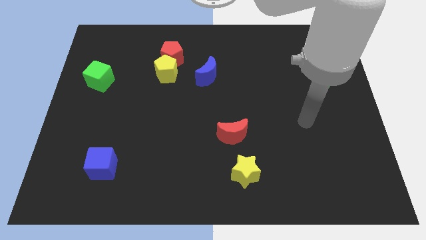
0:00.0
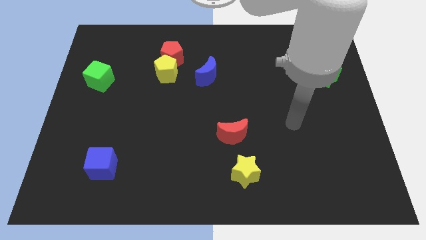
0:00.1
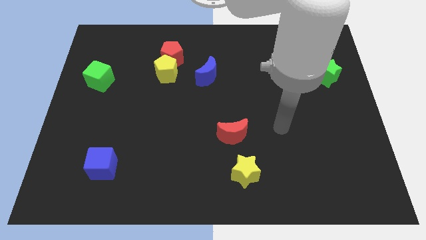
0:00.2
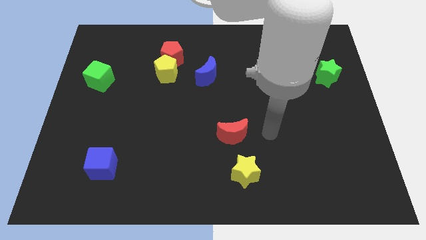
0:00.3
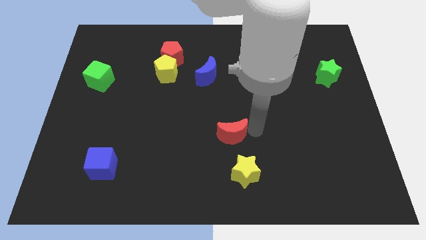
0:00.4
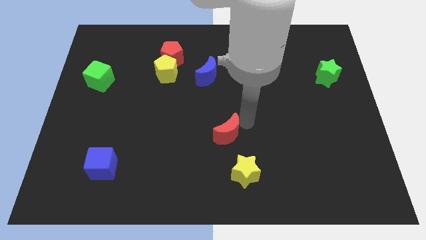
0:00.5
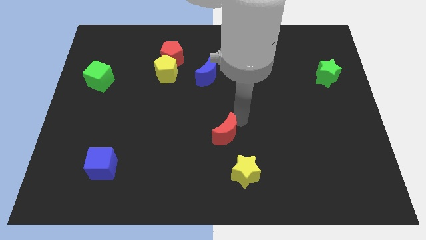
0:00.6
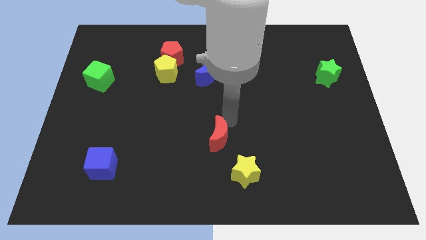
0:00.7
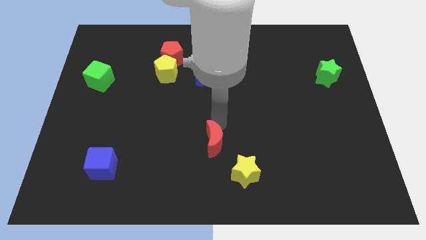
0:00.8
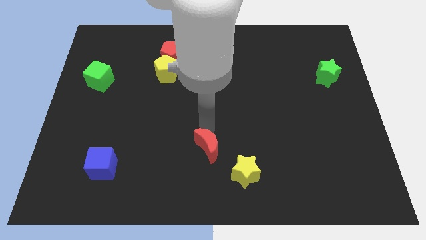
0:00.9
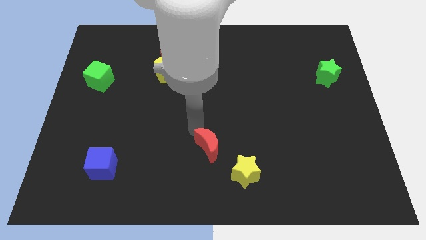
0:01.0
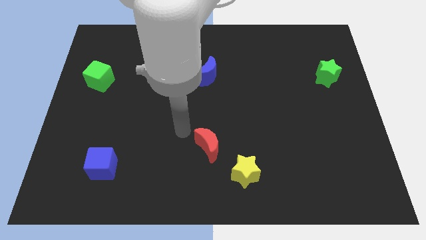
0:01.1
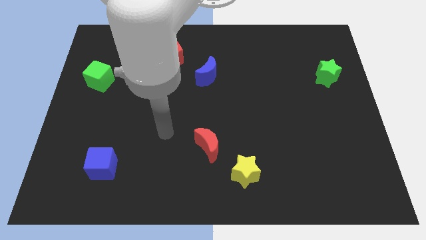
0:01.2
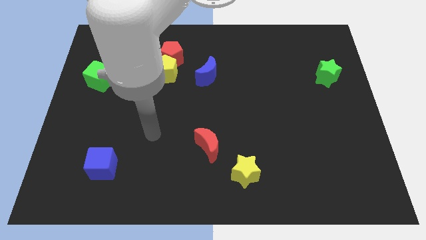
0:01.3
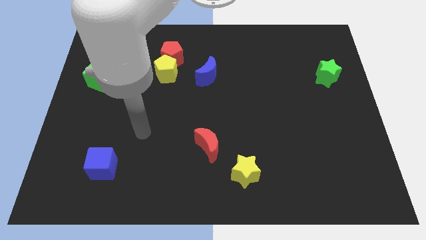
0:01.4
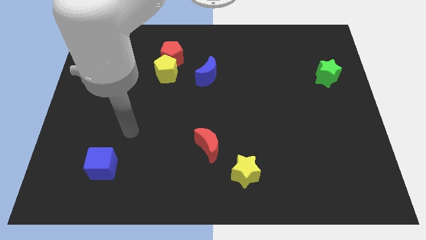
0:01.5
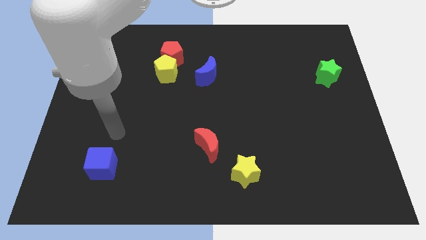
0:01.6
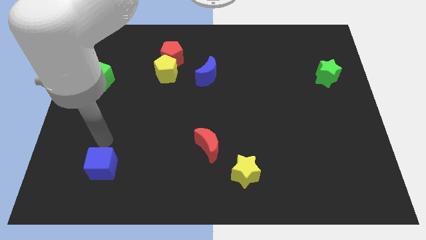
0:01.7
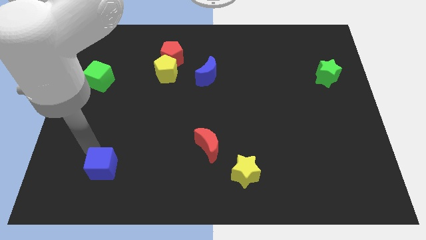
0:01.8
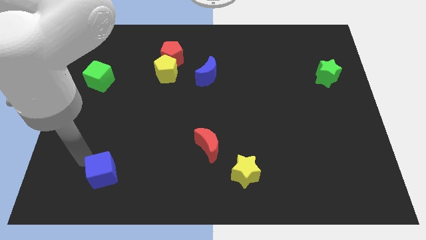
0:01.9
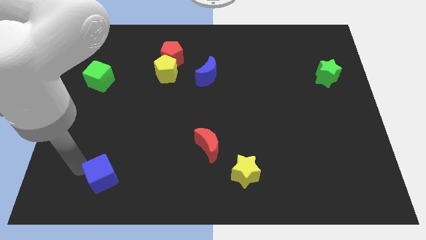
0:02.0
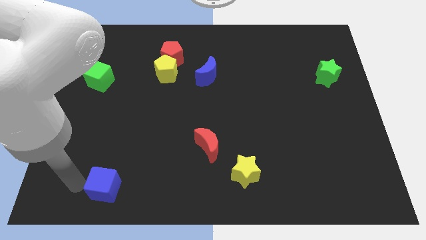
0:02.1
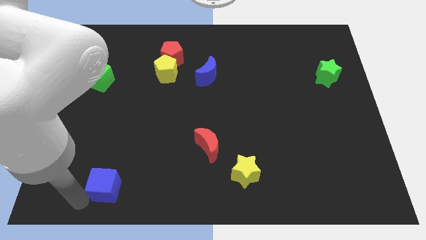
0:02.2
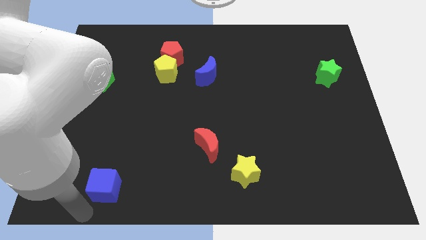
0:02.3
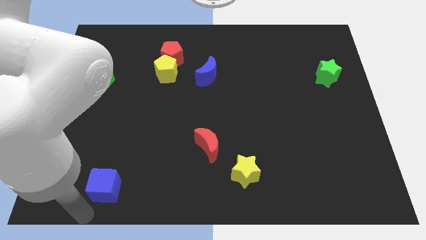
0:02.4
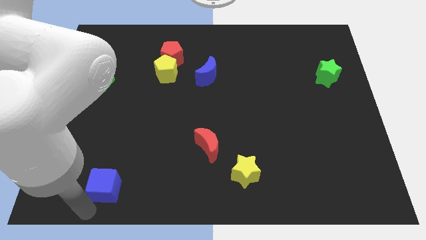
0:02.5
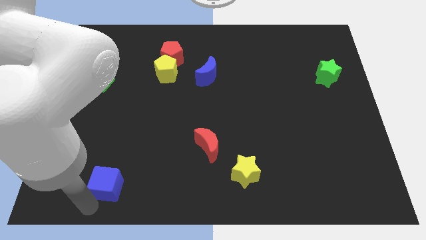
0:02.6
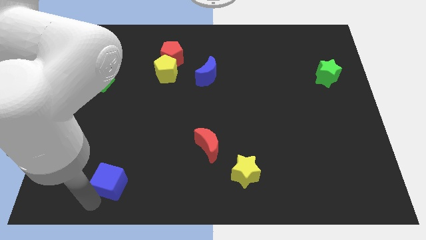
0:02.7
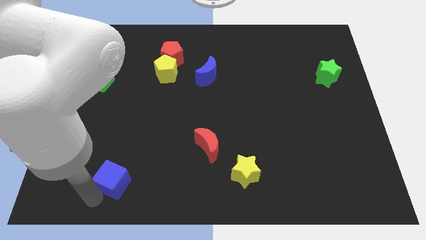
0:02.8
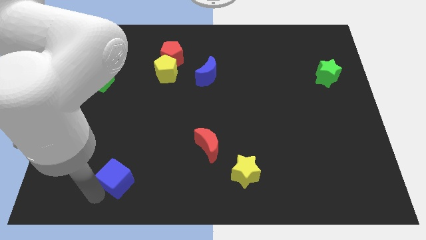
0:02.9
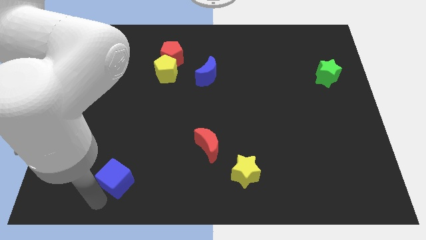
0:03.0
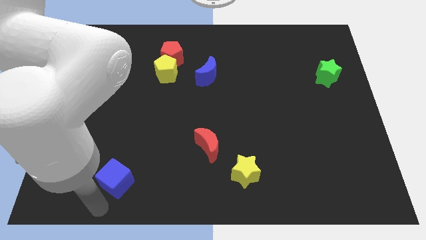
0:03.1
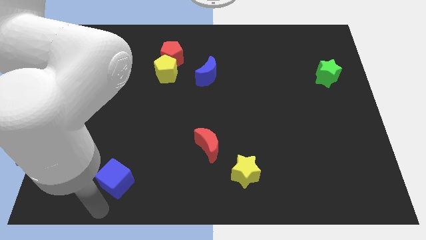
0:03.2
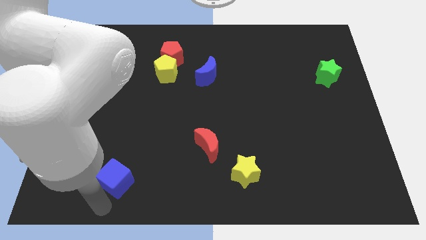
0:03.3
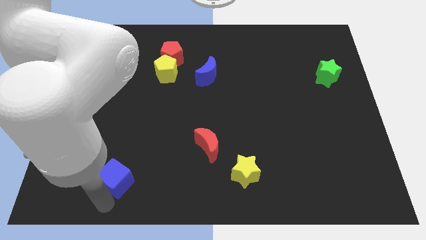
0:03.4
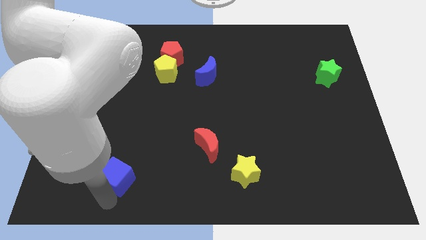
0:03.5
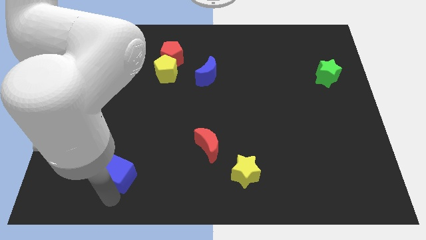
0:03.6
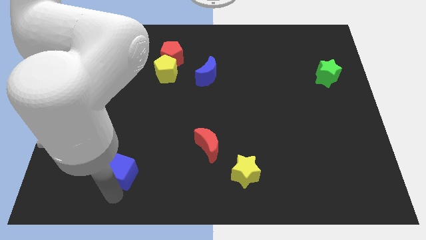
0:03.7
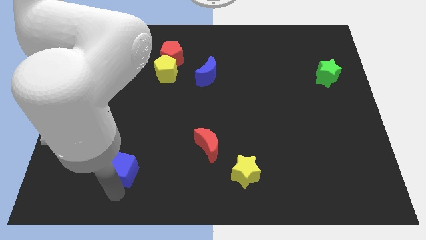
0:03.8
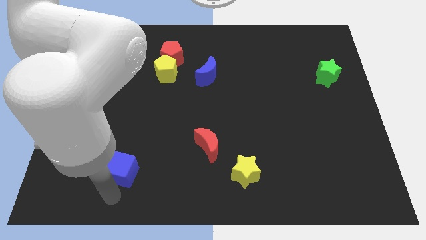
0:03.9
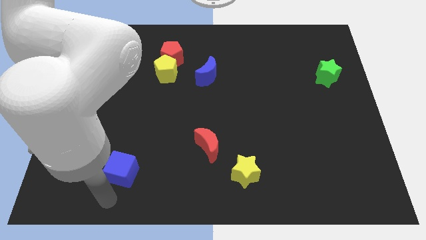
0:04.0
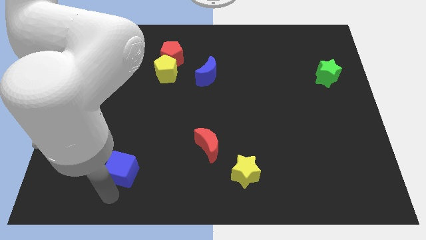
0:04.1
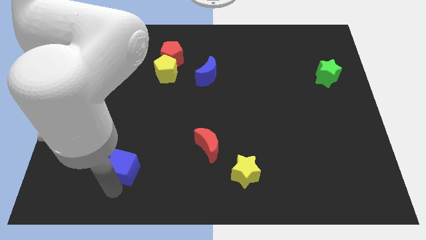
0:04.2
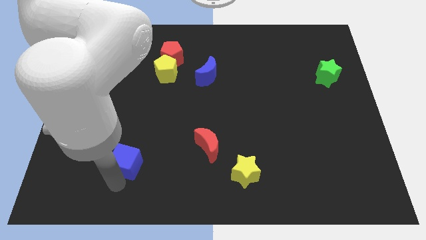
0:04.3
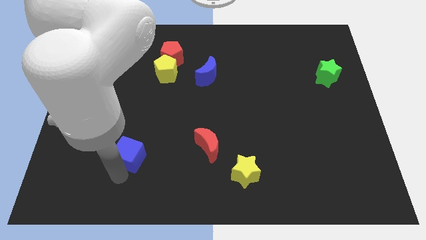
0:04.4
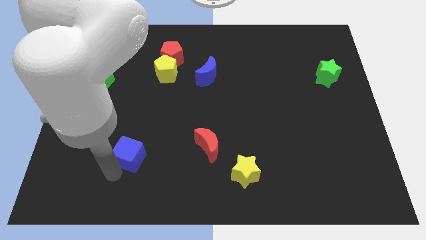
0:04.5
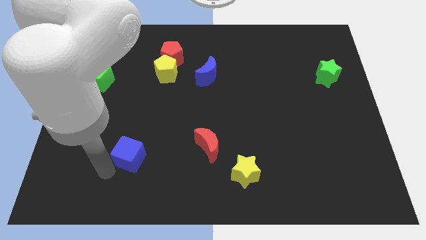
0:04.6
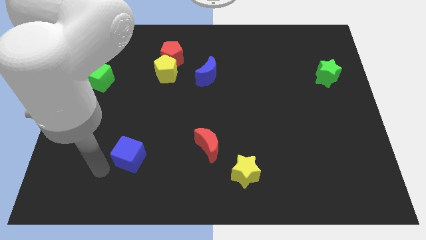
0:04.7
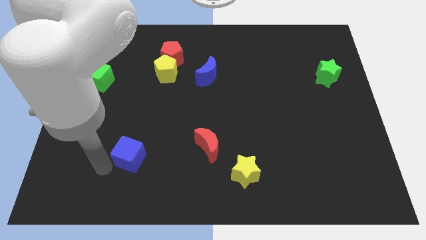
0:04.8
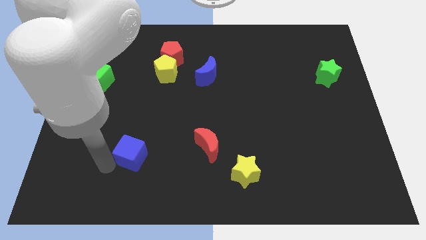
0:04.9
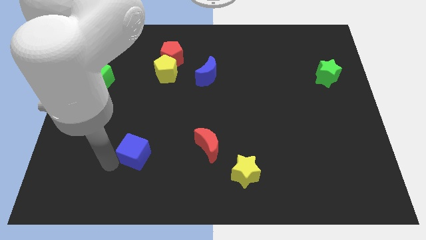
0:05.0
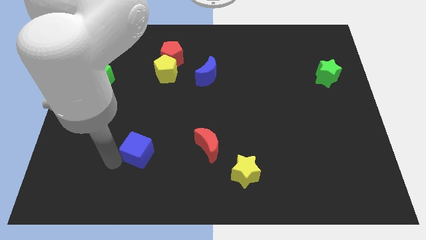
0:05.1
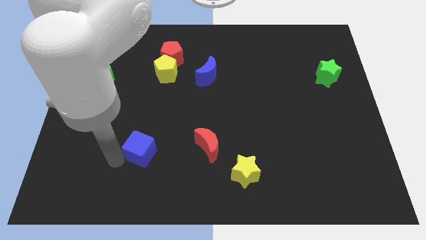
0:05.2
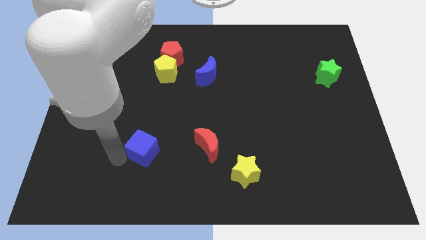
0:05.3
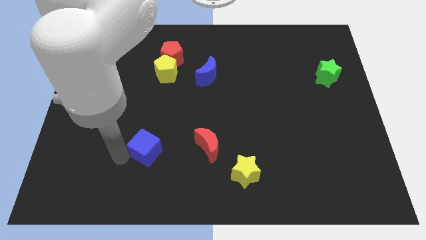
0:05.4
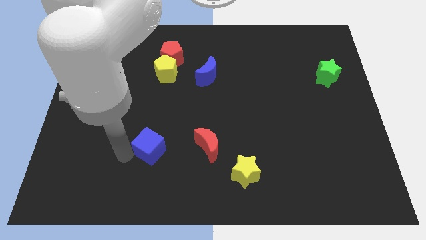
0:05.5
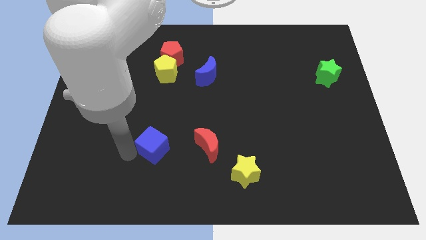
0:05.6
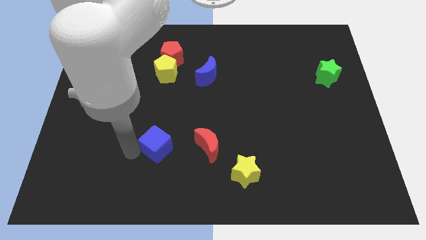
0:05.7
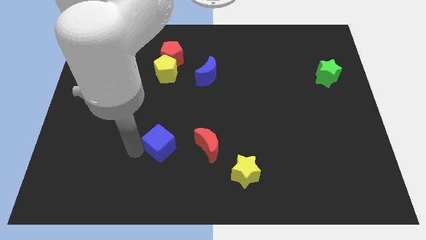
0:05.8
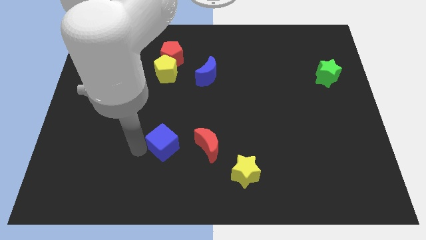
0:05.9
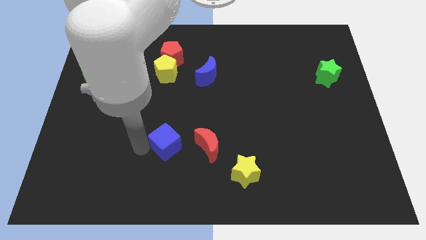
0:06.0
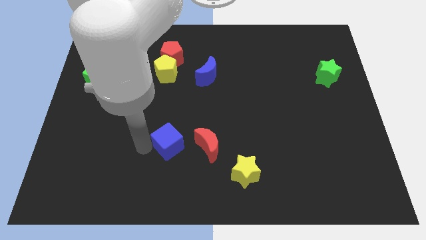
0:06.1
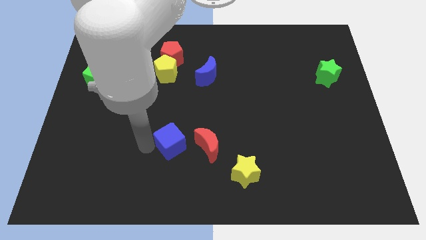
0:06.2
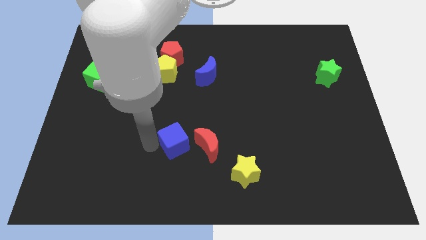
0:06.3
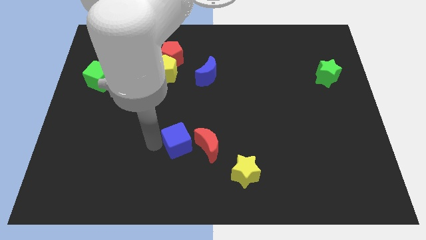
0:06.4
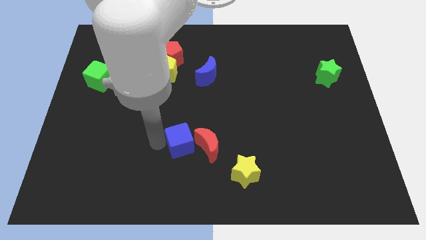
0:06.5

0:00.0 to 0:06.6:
move the blue cube next to the red moon

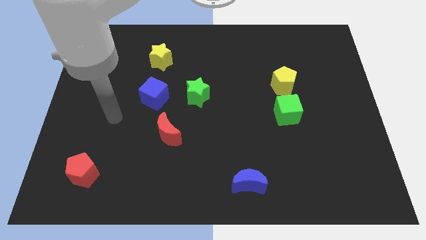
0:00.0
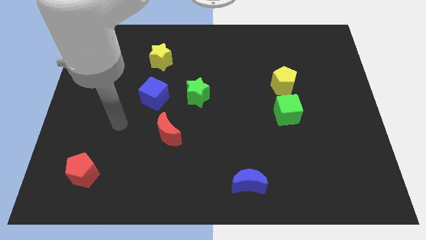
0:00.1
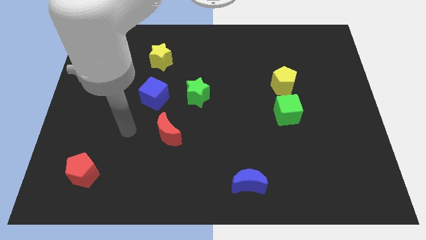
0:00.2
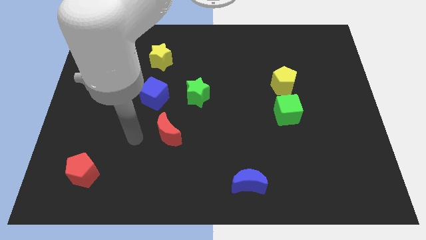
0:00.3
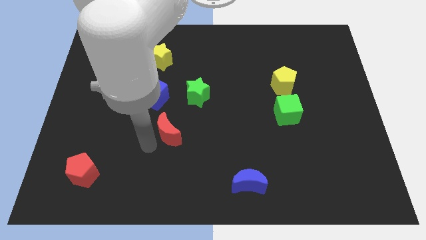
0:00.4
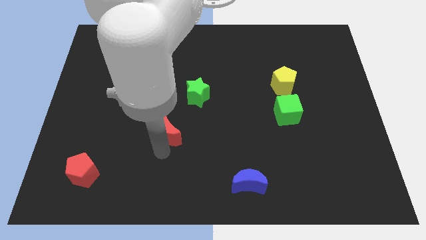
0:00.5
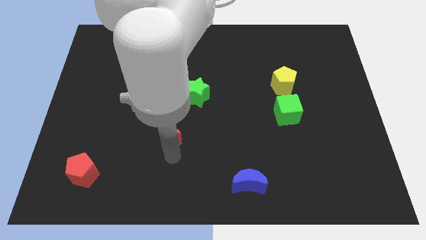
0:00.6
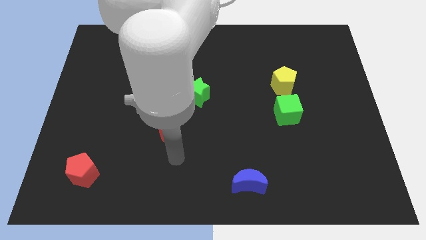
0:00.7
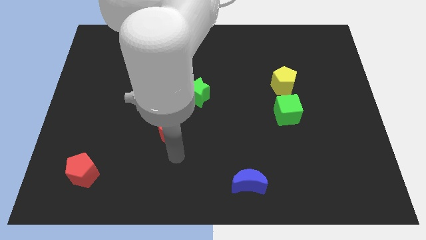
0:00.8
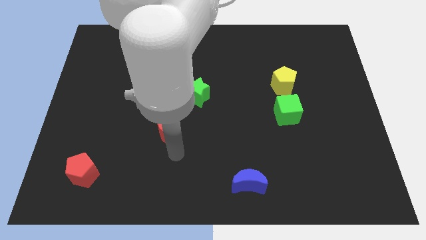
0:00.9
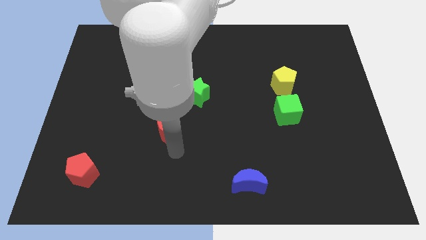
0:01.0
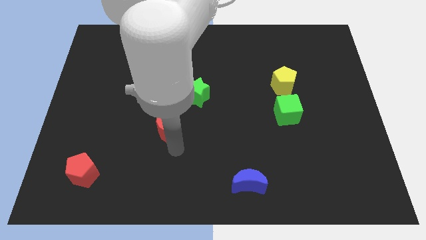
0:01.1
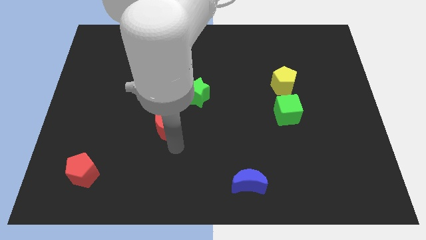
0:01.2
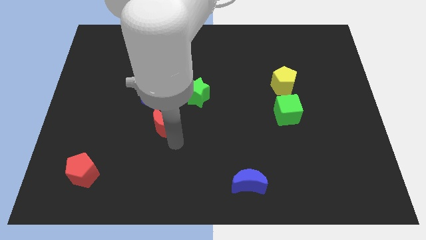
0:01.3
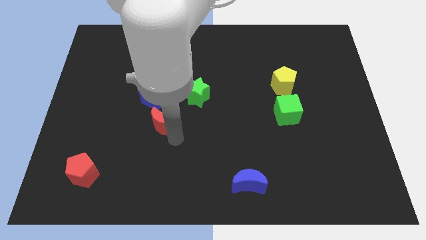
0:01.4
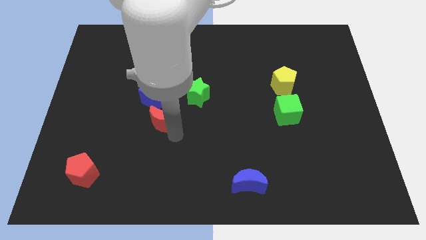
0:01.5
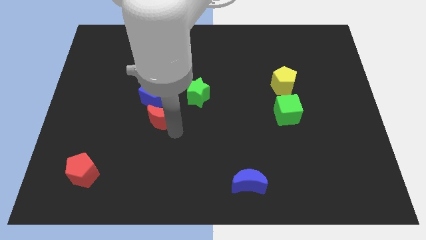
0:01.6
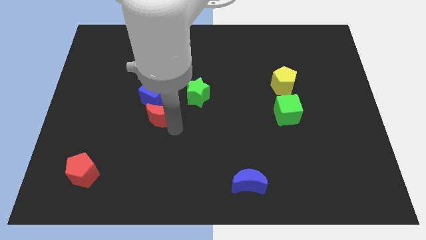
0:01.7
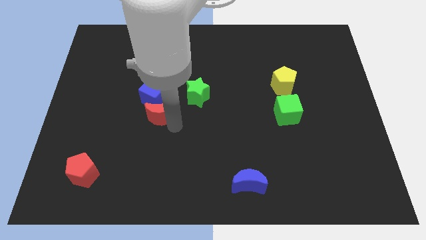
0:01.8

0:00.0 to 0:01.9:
move the red moon close to the blue cube
